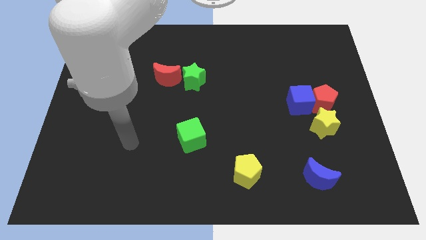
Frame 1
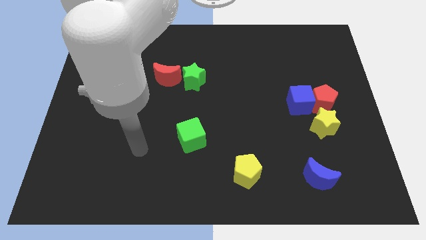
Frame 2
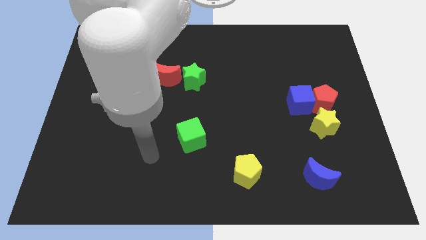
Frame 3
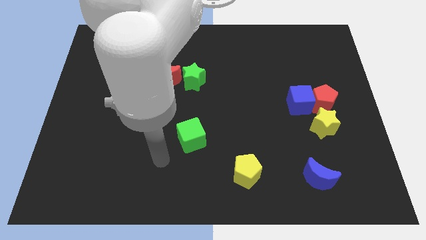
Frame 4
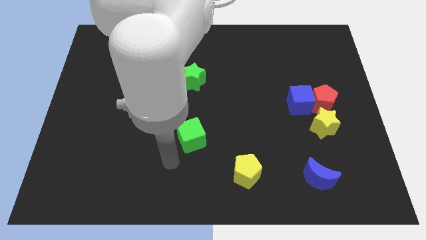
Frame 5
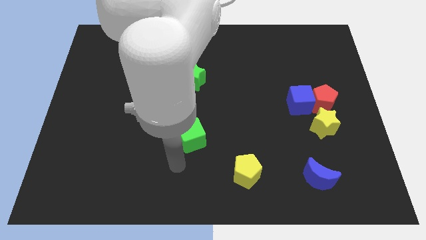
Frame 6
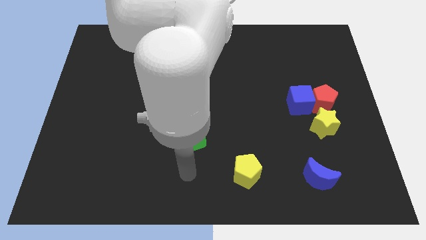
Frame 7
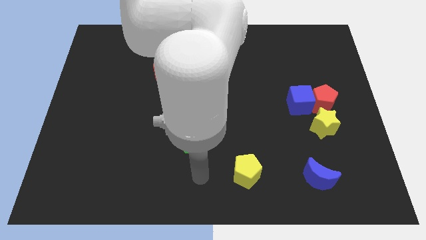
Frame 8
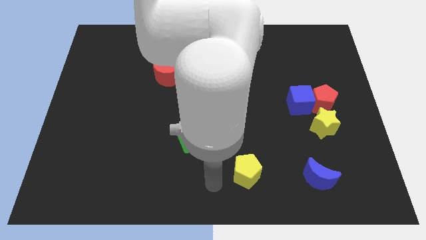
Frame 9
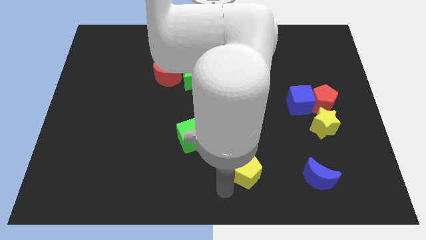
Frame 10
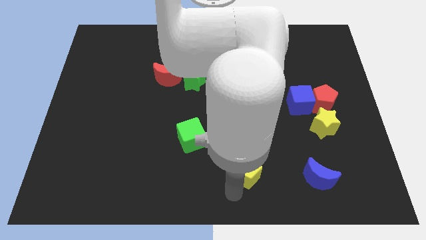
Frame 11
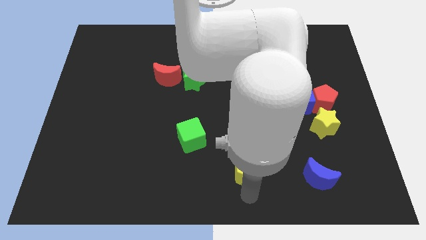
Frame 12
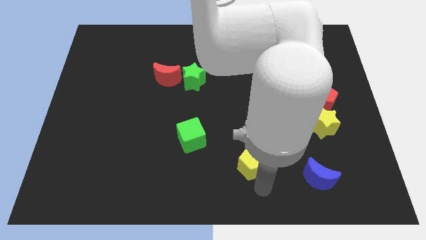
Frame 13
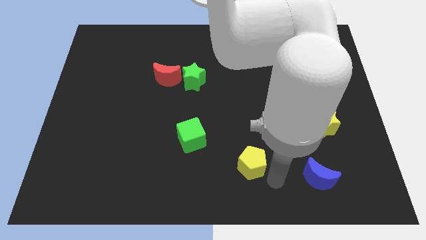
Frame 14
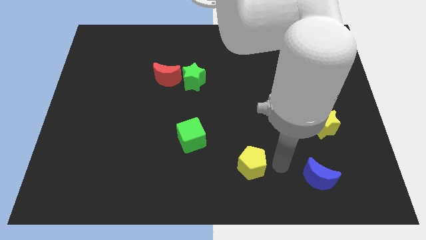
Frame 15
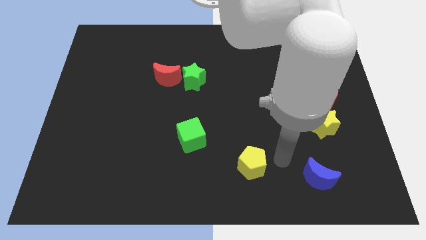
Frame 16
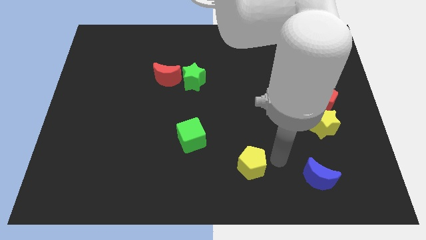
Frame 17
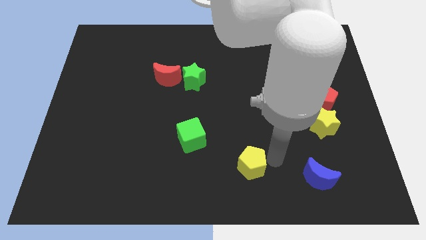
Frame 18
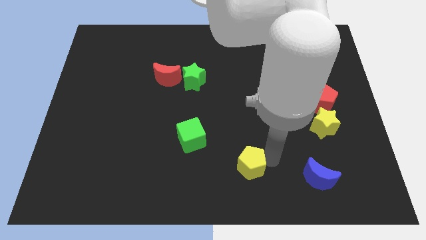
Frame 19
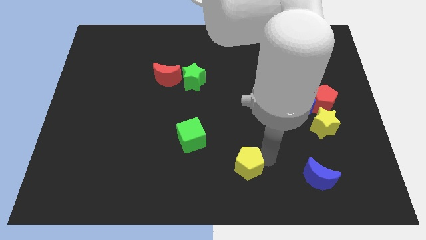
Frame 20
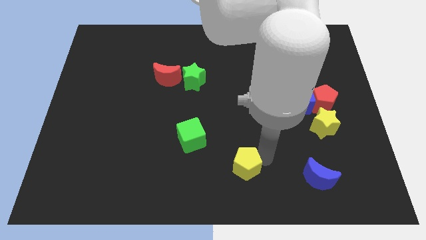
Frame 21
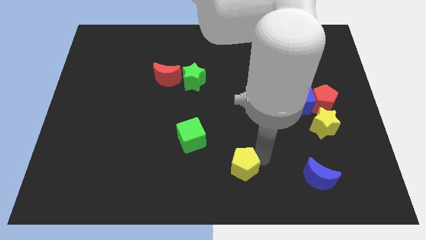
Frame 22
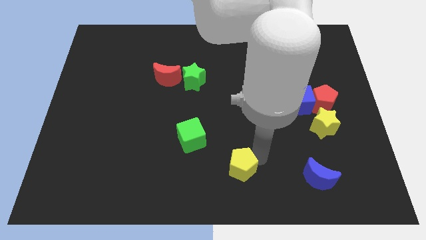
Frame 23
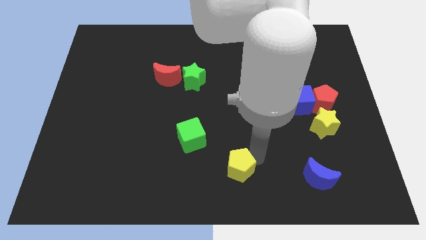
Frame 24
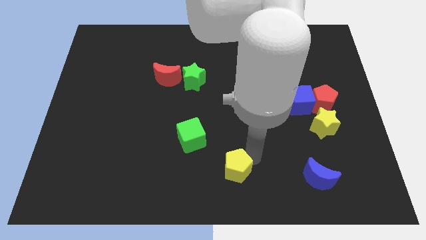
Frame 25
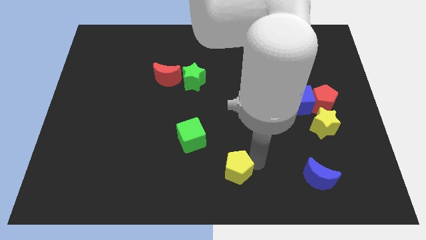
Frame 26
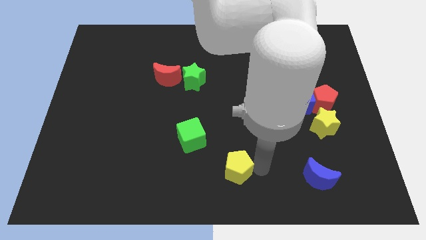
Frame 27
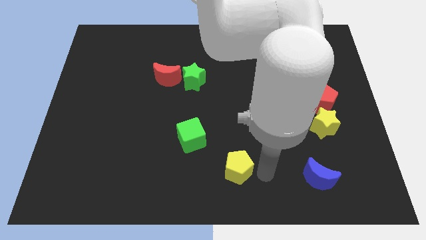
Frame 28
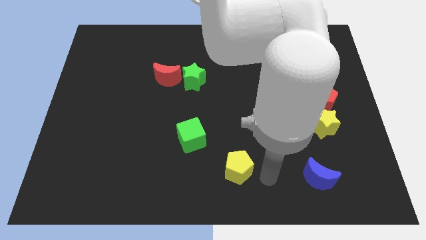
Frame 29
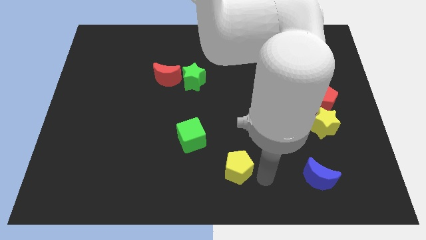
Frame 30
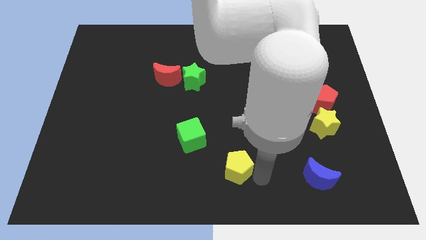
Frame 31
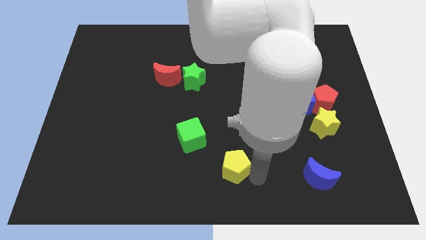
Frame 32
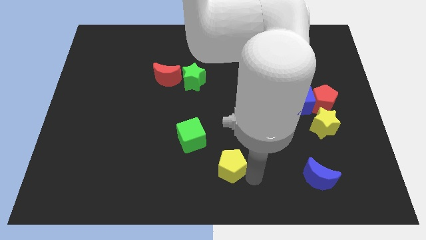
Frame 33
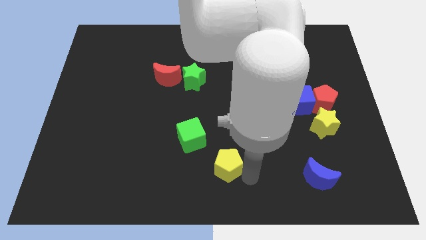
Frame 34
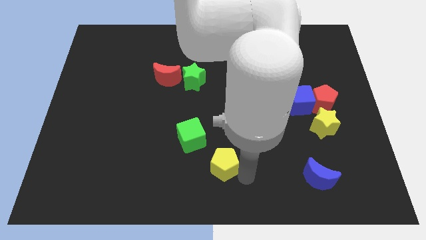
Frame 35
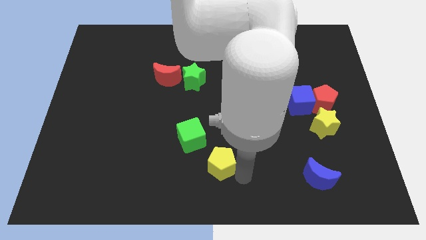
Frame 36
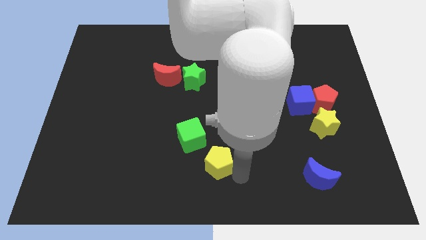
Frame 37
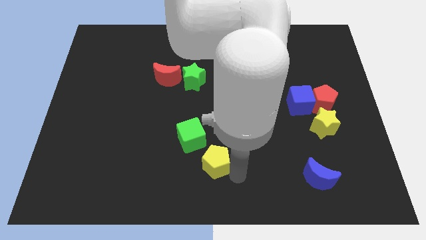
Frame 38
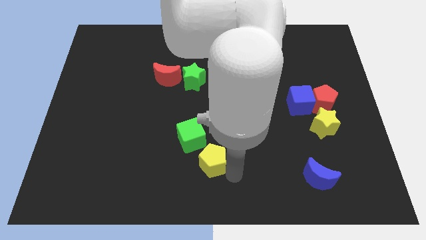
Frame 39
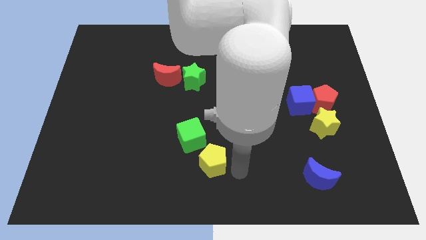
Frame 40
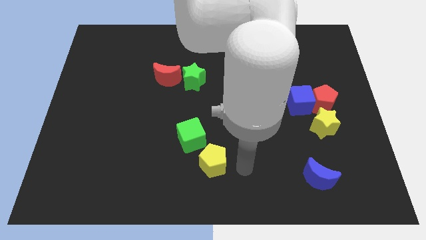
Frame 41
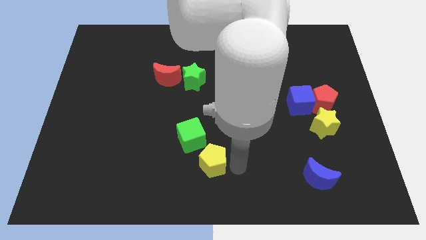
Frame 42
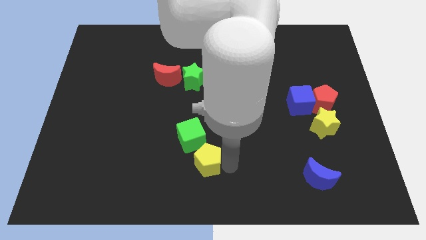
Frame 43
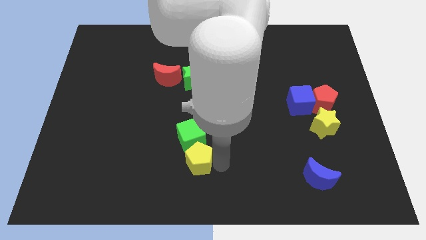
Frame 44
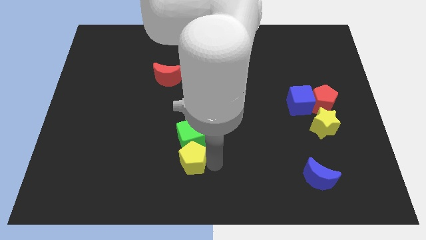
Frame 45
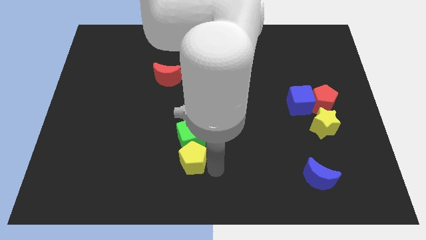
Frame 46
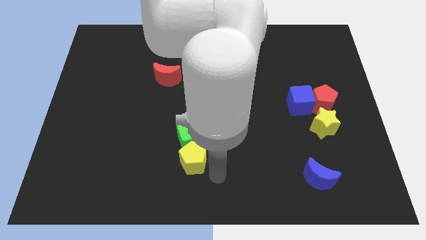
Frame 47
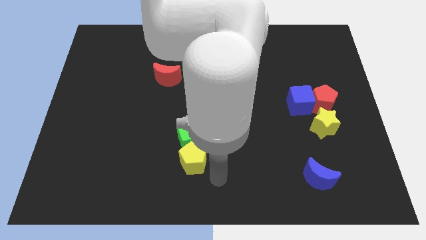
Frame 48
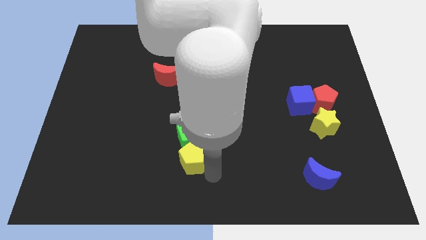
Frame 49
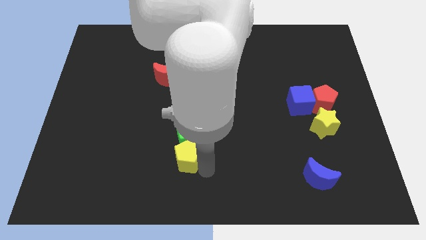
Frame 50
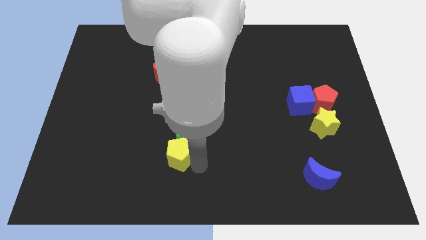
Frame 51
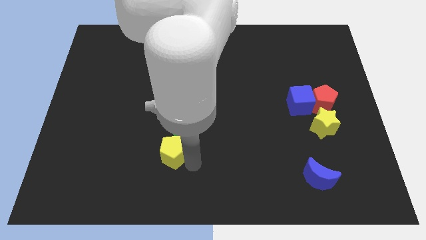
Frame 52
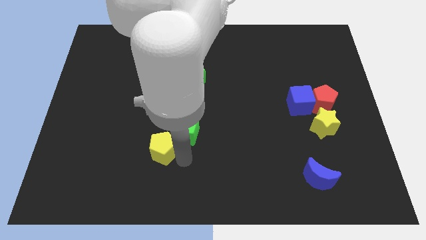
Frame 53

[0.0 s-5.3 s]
move the yellow pentagon just left of the green cube

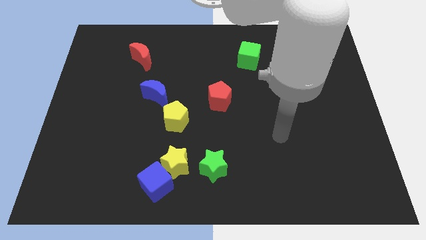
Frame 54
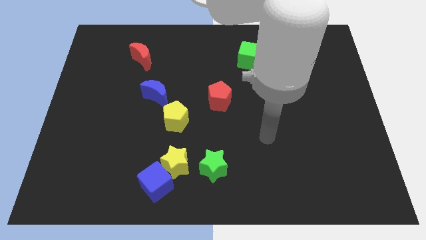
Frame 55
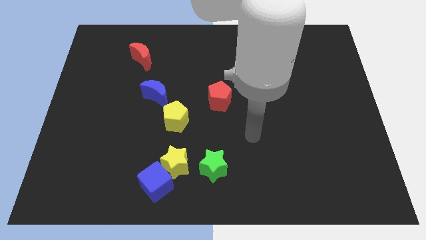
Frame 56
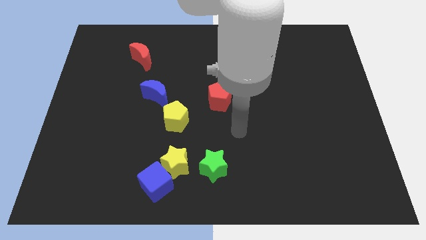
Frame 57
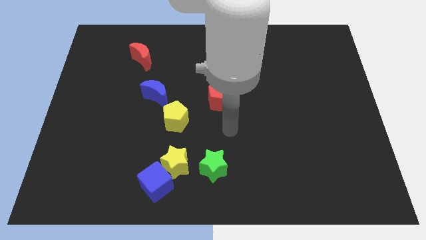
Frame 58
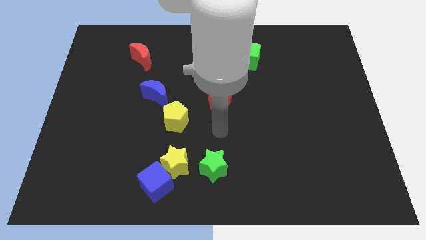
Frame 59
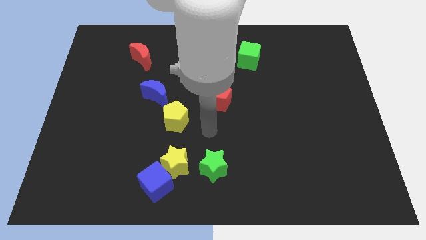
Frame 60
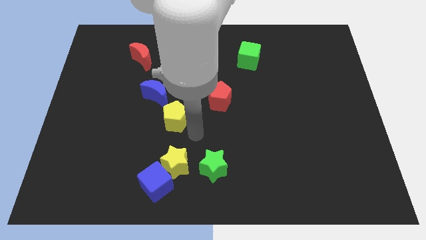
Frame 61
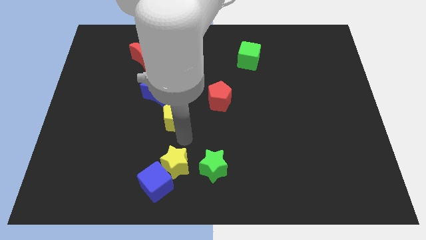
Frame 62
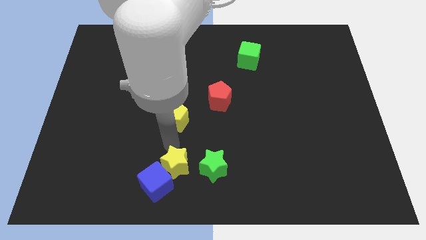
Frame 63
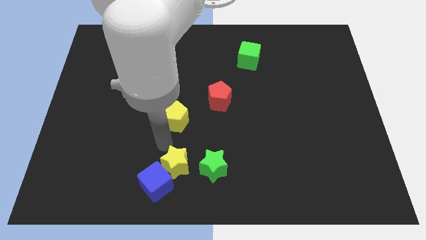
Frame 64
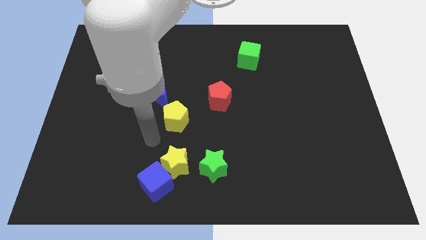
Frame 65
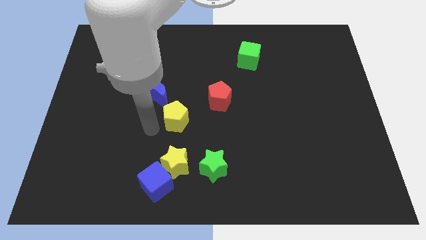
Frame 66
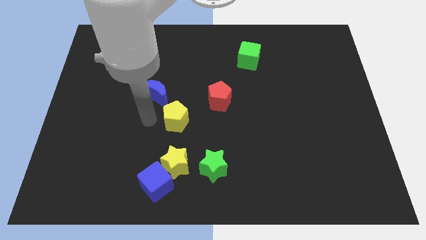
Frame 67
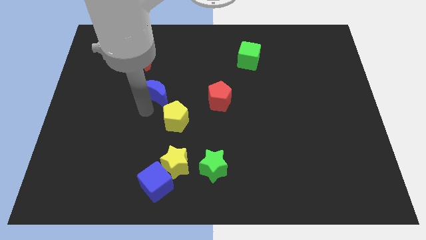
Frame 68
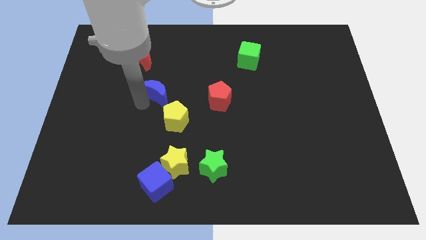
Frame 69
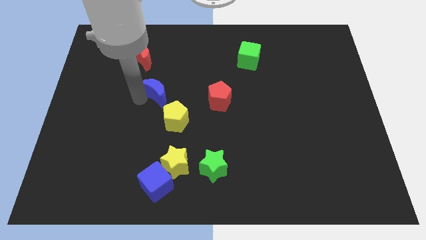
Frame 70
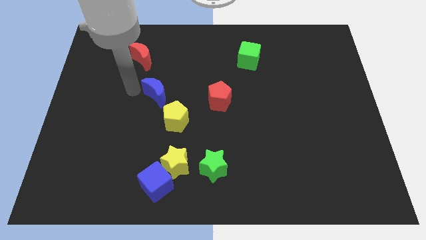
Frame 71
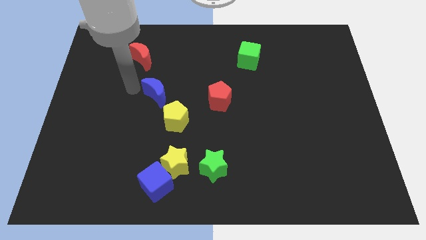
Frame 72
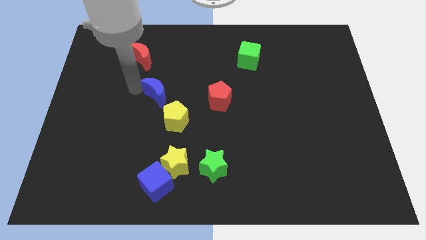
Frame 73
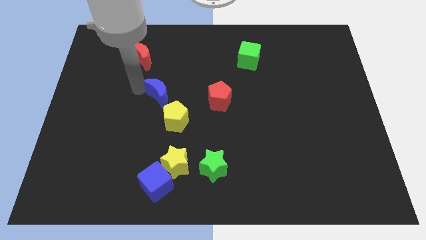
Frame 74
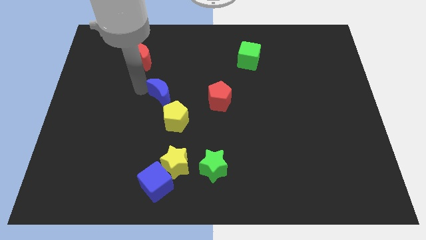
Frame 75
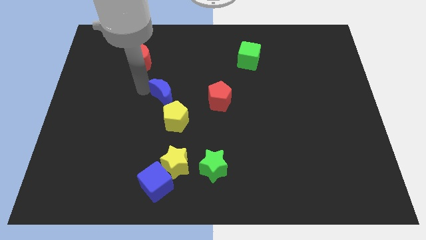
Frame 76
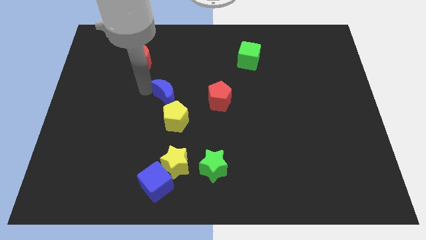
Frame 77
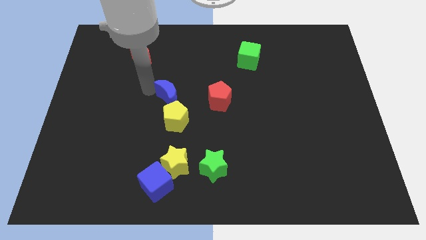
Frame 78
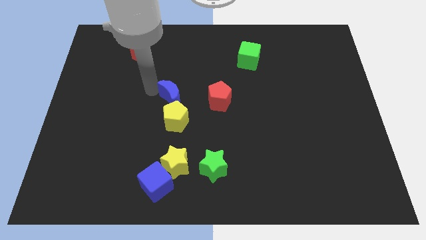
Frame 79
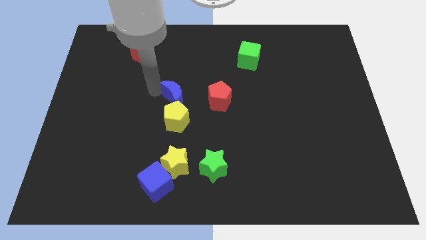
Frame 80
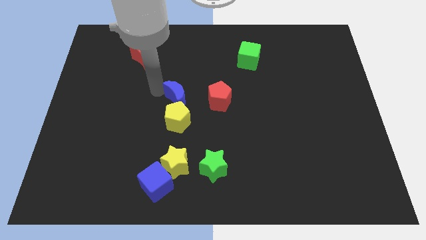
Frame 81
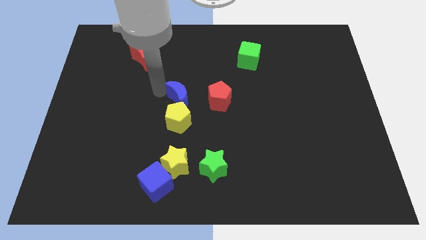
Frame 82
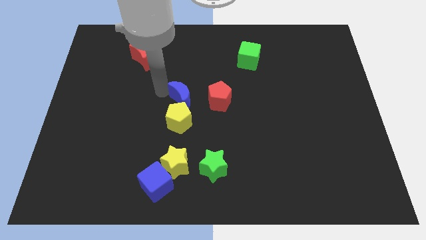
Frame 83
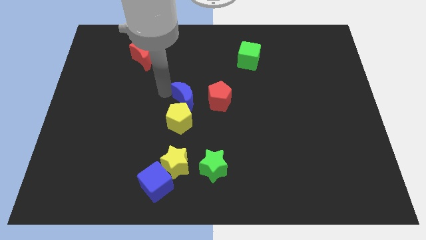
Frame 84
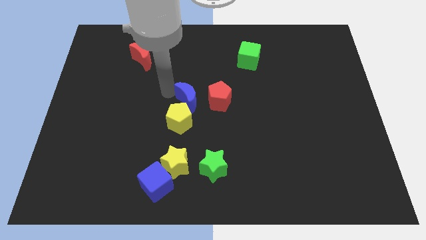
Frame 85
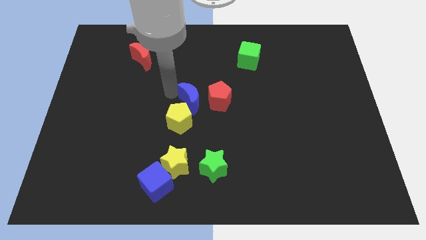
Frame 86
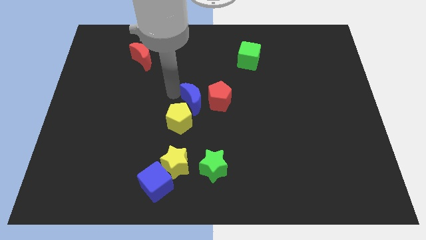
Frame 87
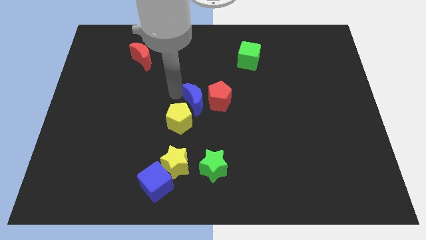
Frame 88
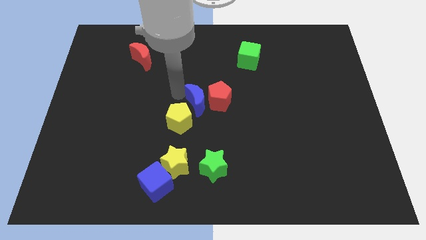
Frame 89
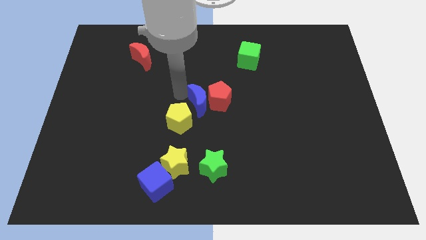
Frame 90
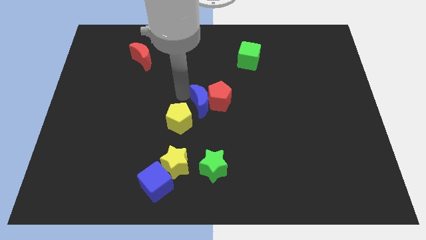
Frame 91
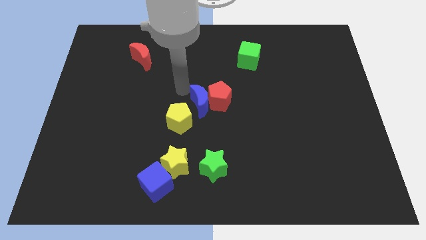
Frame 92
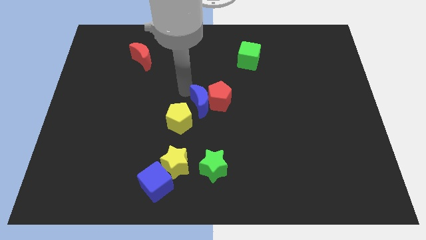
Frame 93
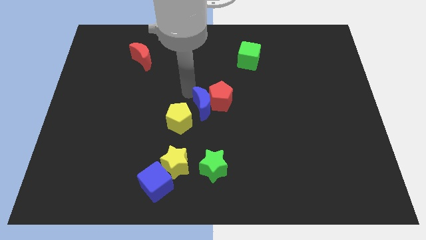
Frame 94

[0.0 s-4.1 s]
put the blue moon right of the yellow pentagon
